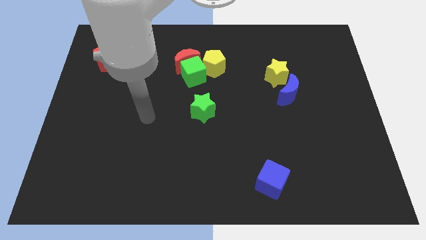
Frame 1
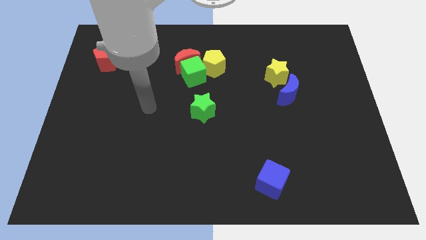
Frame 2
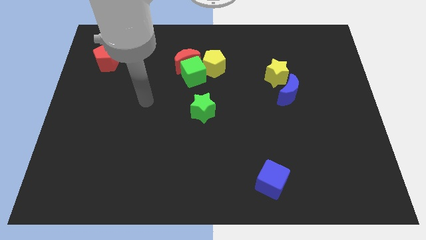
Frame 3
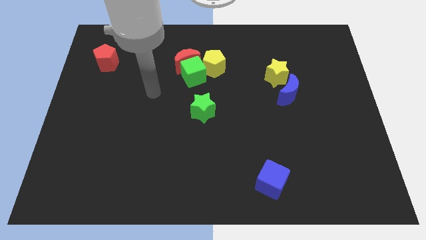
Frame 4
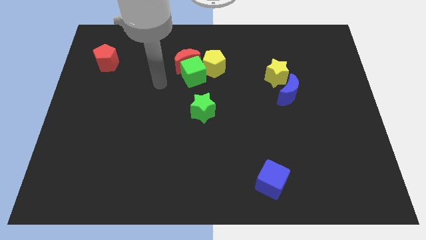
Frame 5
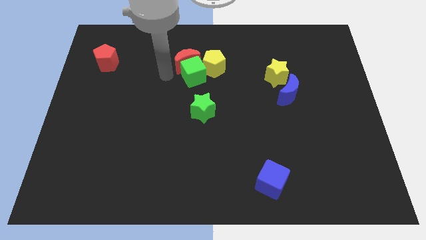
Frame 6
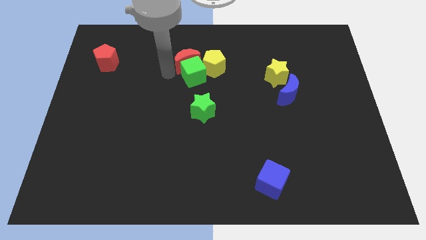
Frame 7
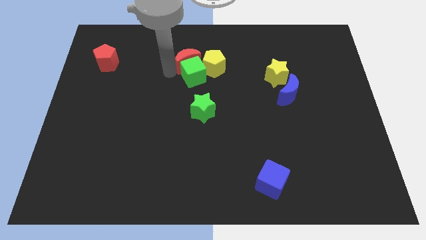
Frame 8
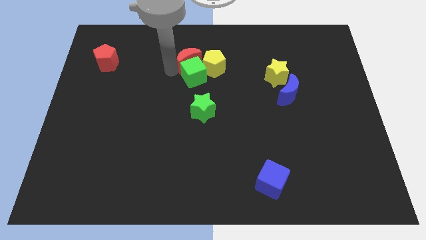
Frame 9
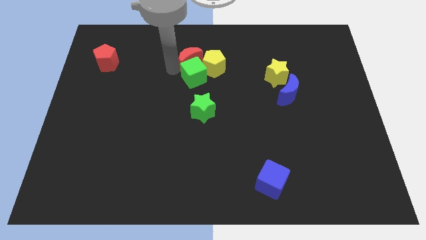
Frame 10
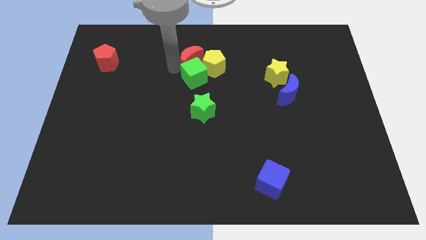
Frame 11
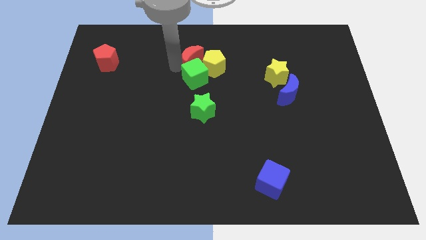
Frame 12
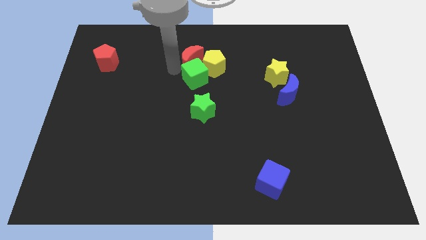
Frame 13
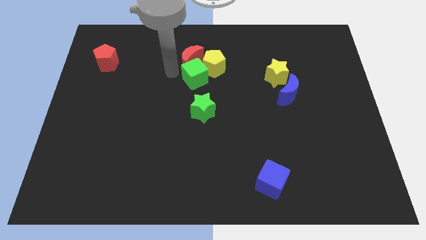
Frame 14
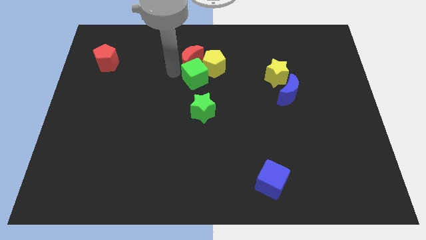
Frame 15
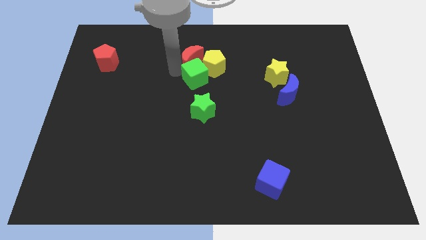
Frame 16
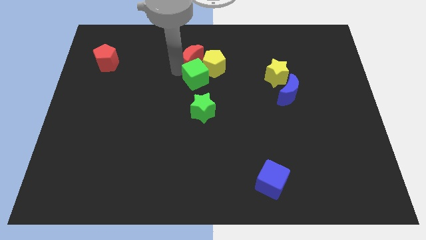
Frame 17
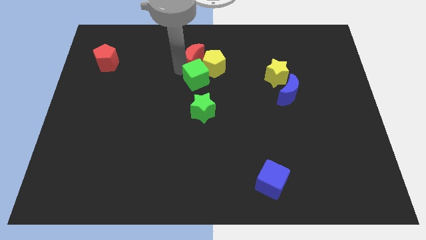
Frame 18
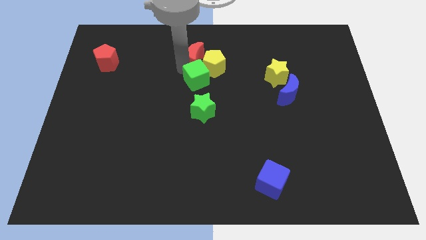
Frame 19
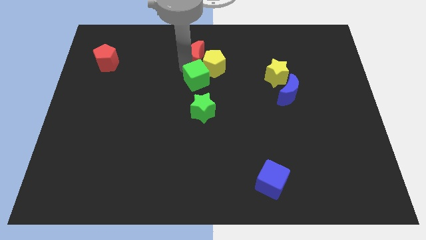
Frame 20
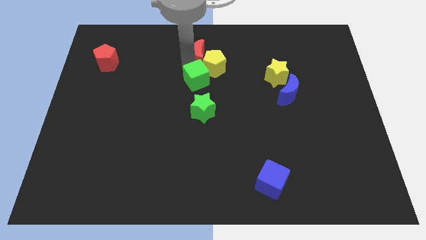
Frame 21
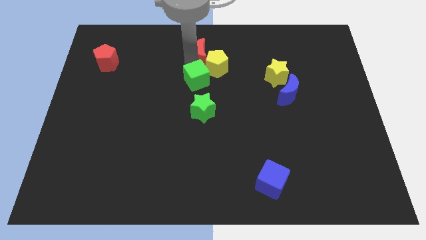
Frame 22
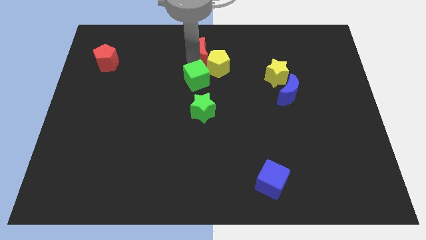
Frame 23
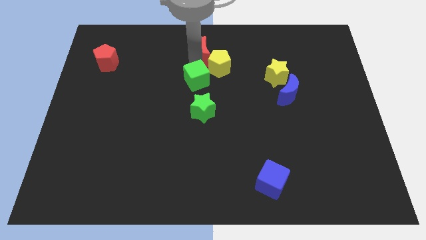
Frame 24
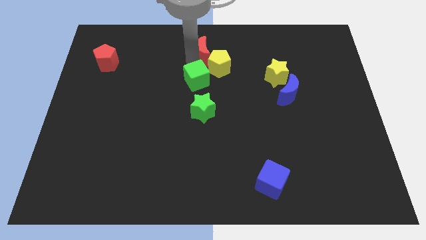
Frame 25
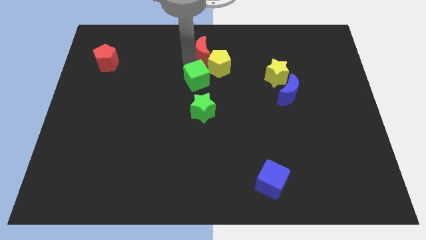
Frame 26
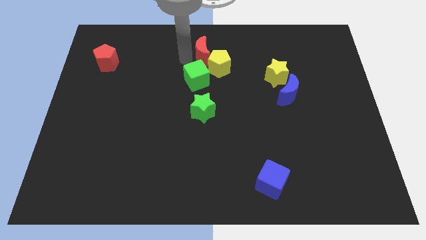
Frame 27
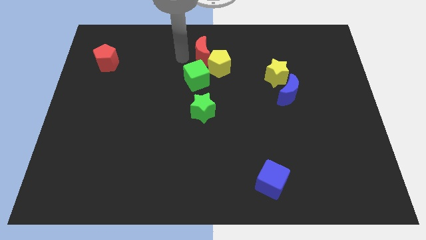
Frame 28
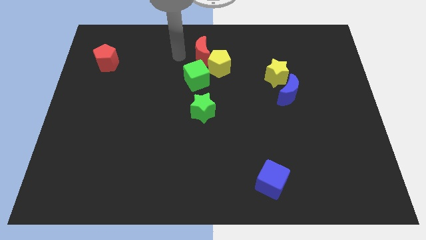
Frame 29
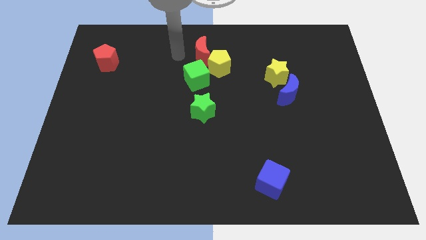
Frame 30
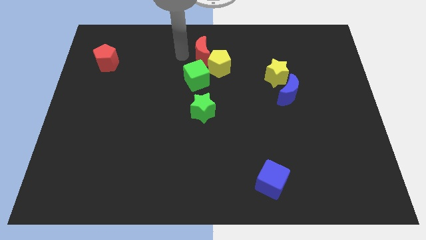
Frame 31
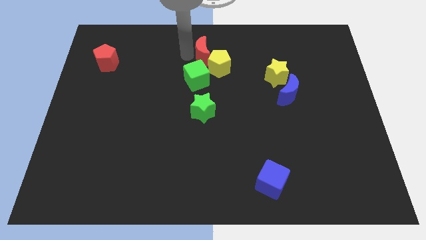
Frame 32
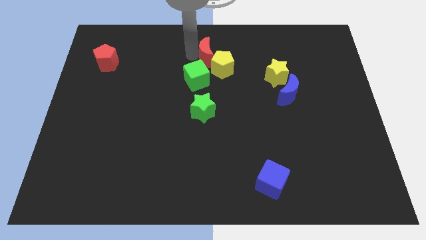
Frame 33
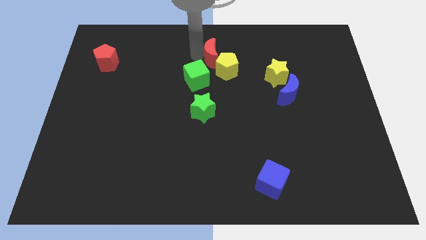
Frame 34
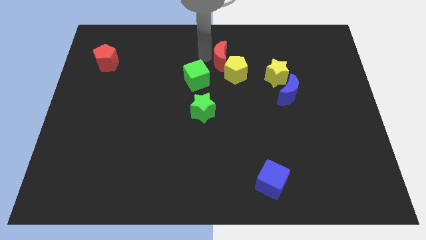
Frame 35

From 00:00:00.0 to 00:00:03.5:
push the red moon to the right a little

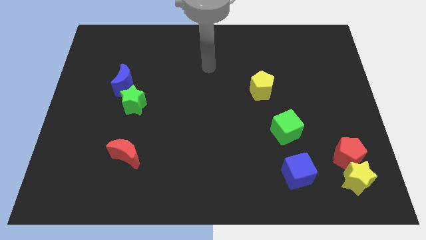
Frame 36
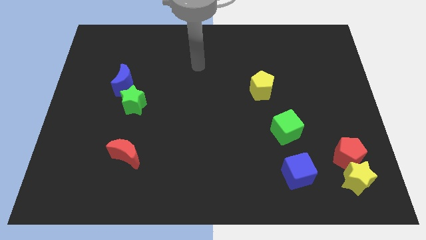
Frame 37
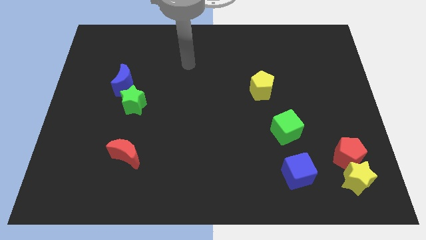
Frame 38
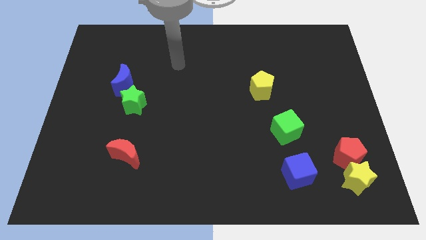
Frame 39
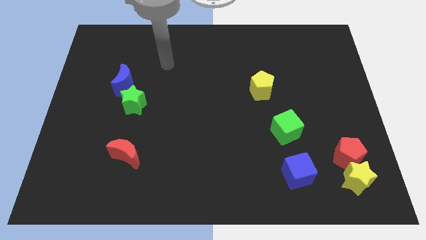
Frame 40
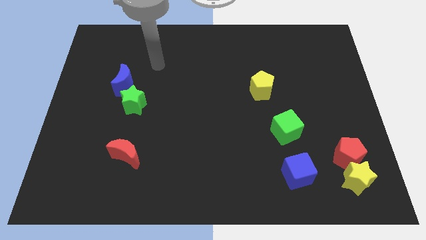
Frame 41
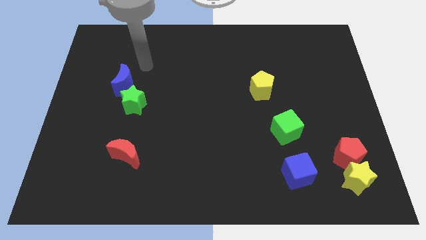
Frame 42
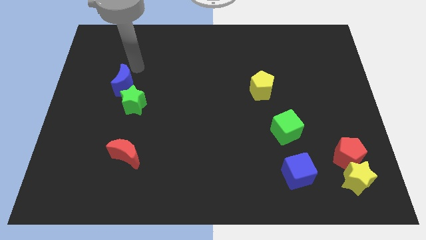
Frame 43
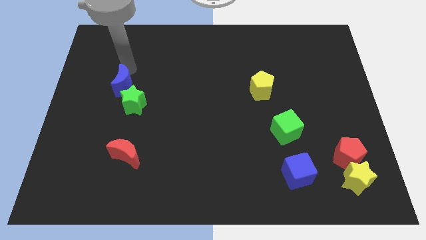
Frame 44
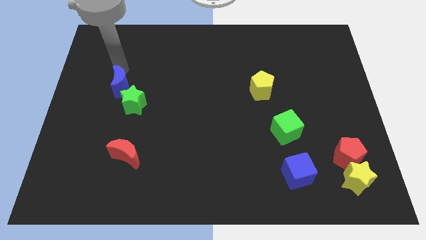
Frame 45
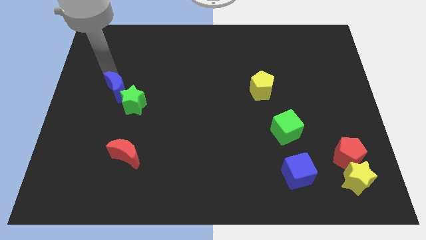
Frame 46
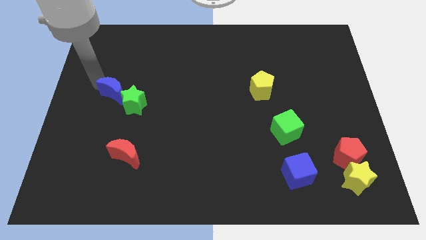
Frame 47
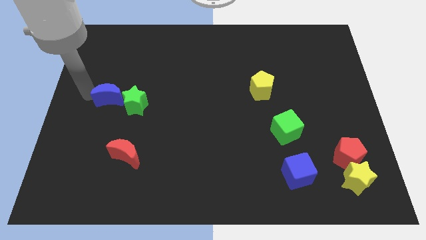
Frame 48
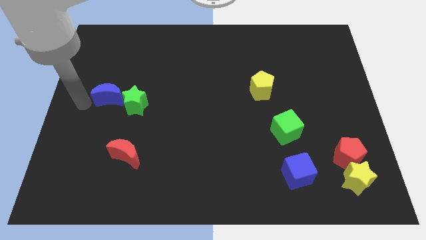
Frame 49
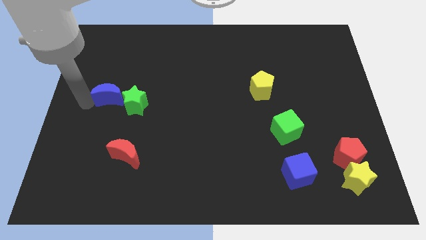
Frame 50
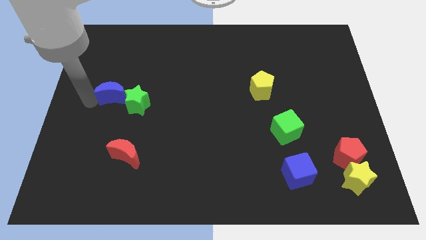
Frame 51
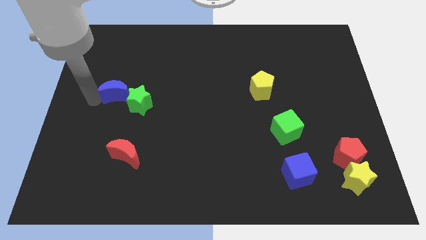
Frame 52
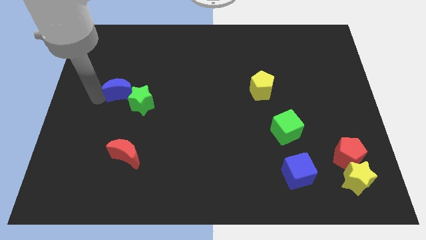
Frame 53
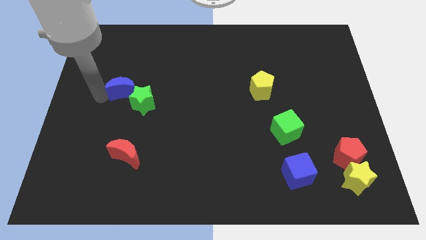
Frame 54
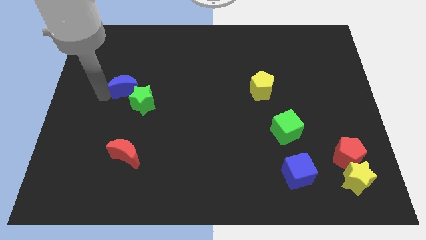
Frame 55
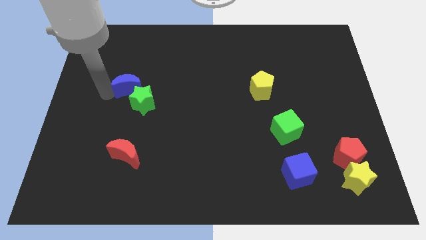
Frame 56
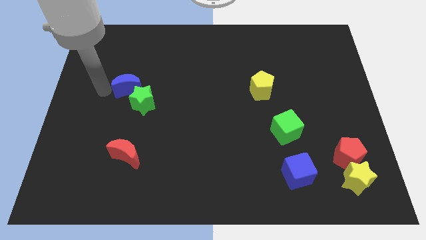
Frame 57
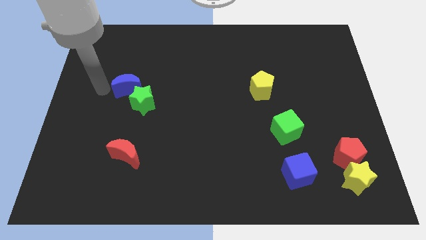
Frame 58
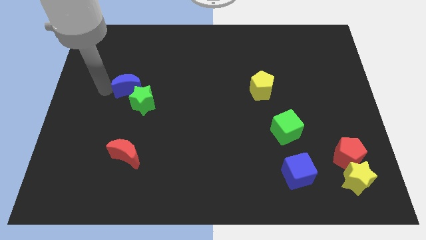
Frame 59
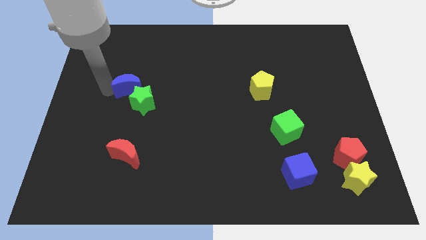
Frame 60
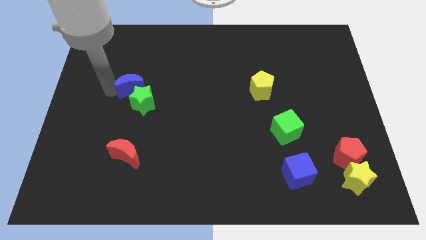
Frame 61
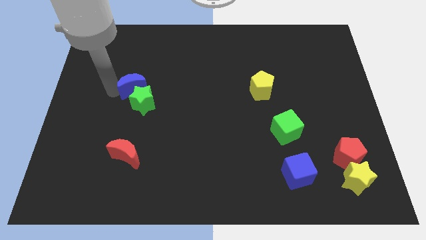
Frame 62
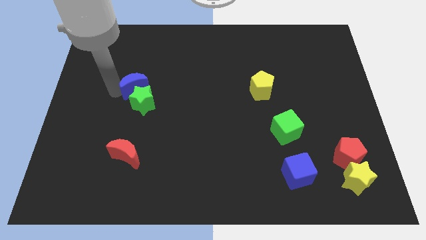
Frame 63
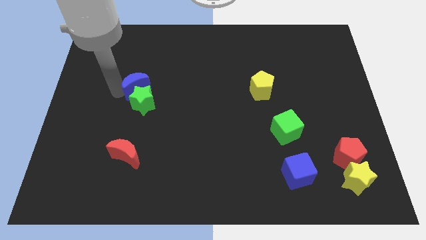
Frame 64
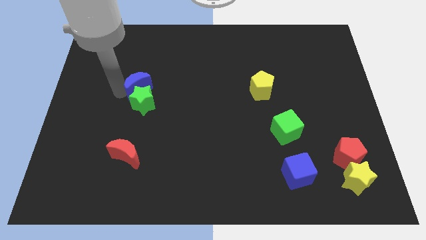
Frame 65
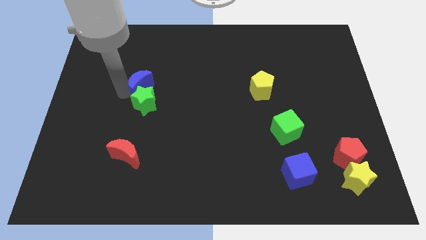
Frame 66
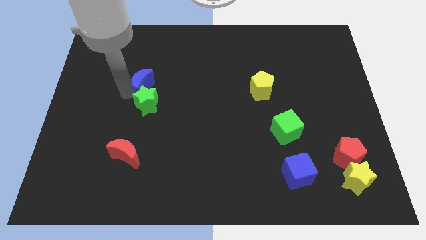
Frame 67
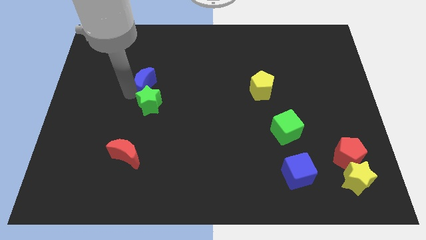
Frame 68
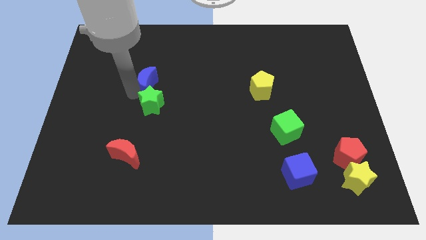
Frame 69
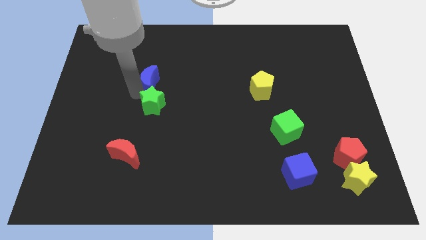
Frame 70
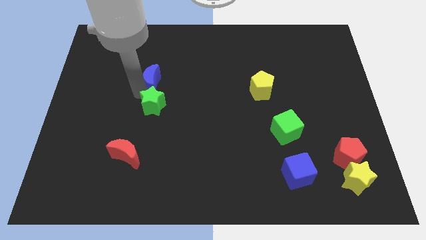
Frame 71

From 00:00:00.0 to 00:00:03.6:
push the blue moon to the right a bit

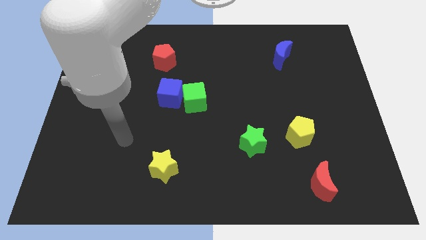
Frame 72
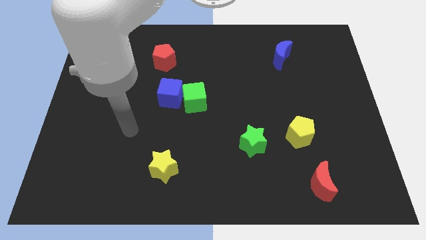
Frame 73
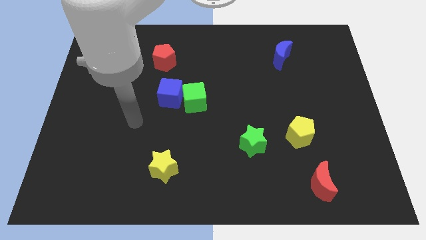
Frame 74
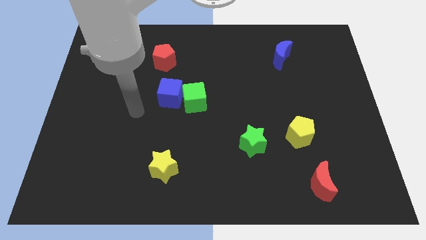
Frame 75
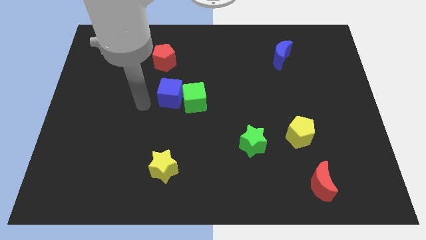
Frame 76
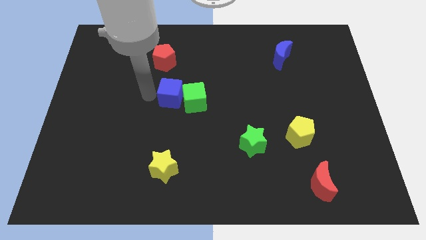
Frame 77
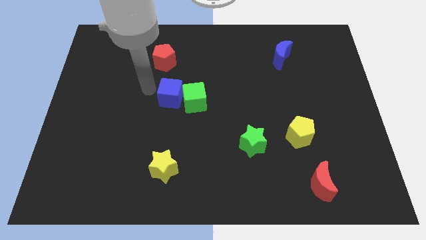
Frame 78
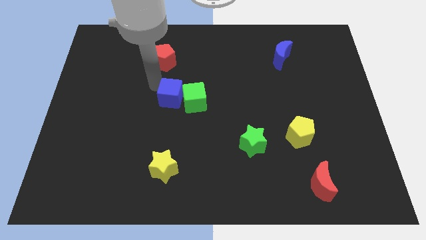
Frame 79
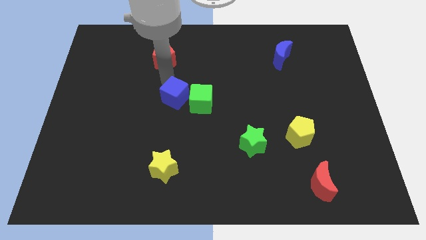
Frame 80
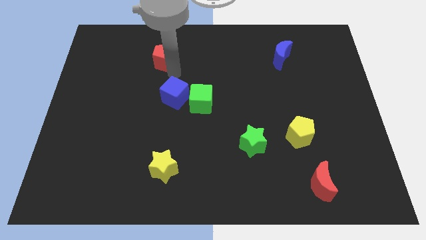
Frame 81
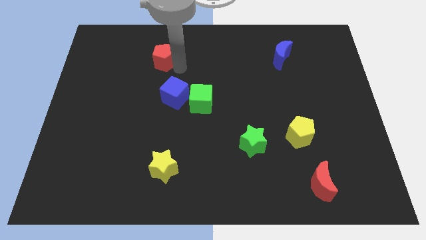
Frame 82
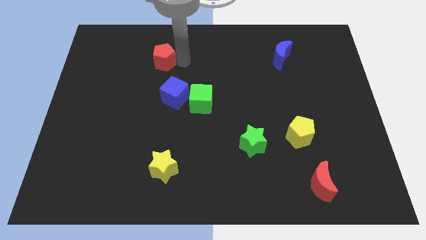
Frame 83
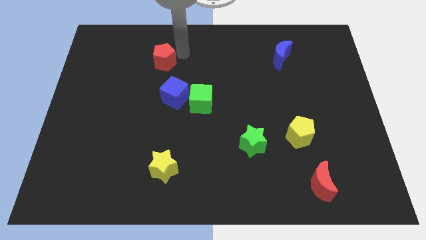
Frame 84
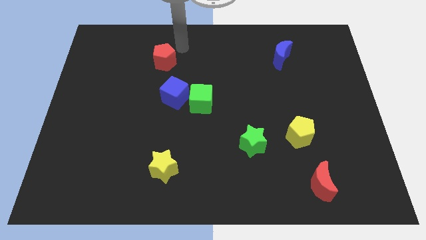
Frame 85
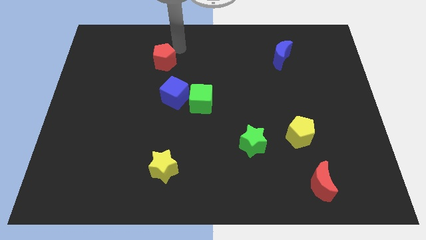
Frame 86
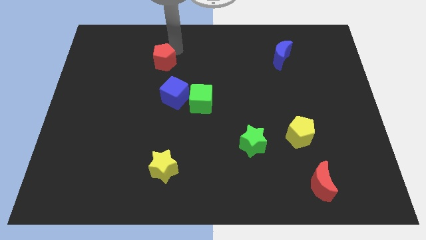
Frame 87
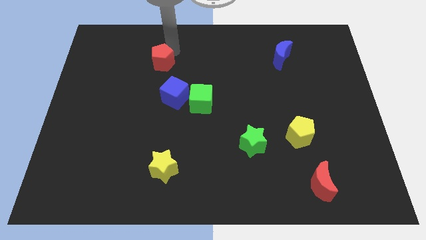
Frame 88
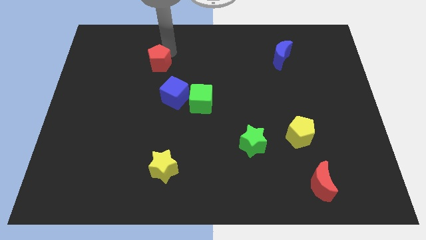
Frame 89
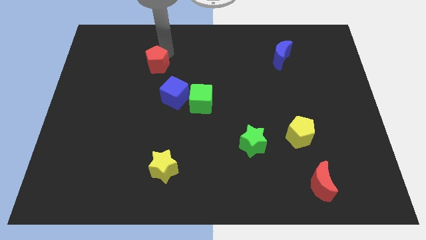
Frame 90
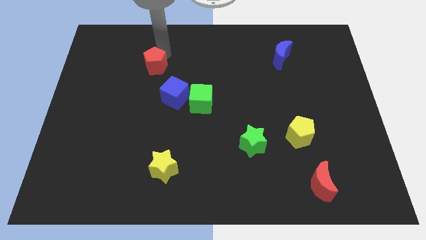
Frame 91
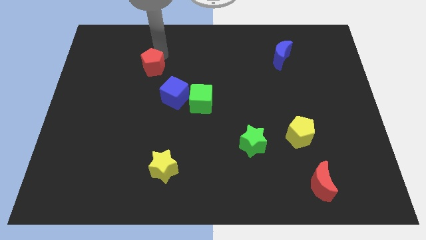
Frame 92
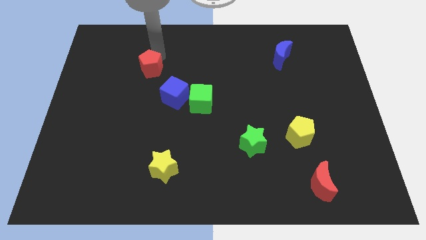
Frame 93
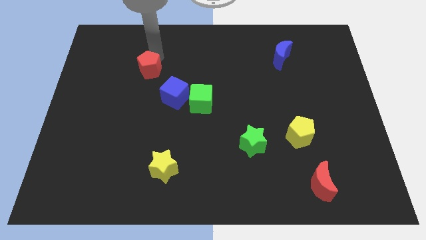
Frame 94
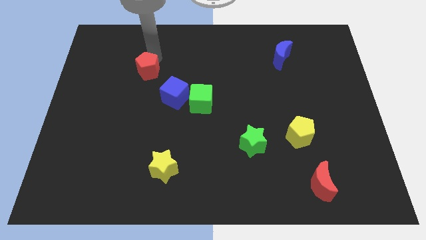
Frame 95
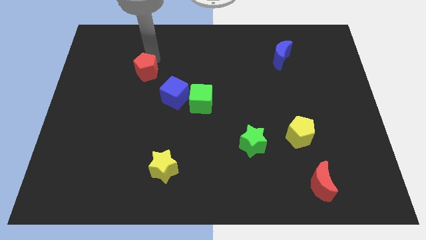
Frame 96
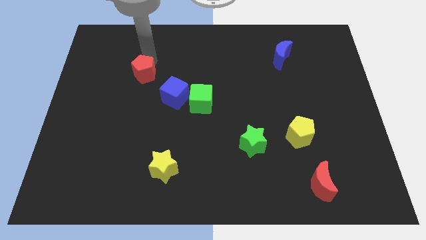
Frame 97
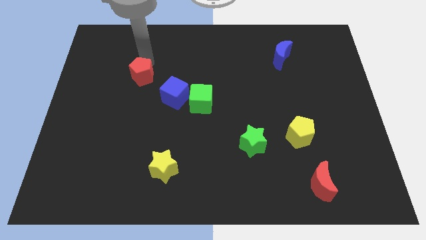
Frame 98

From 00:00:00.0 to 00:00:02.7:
slightly slide the red pentagon downwards and left
